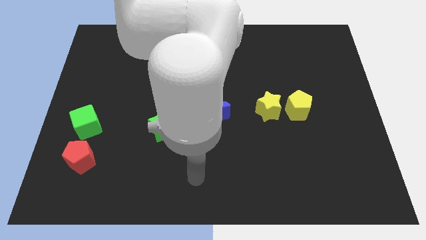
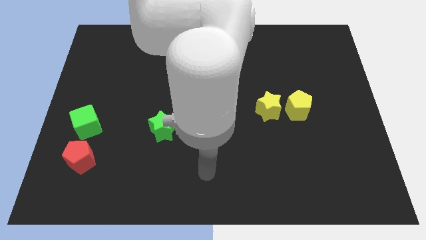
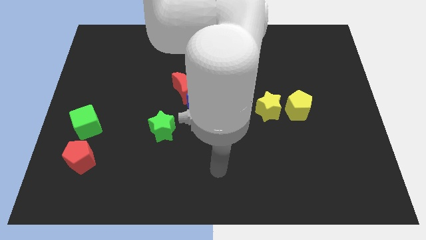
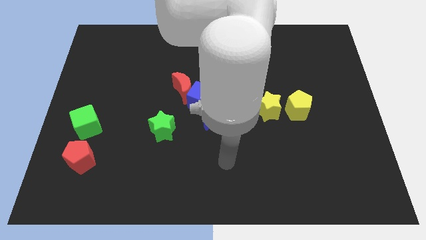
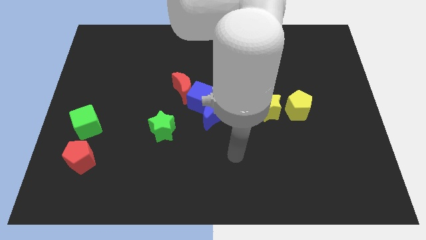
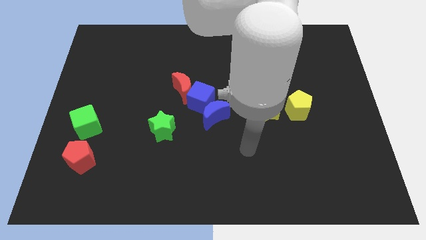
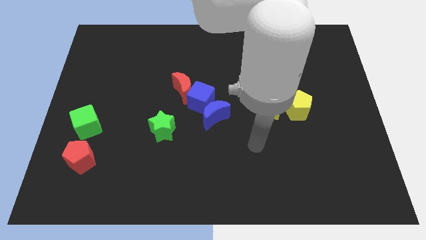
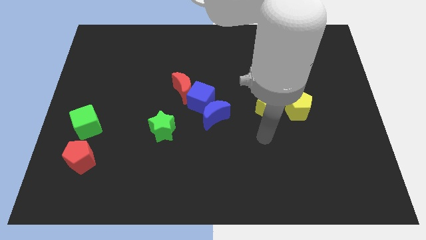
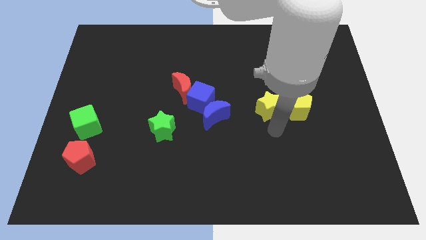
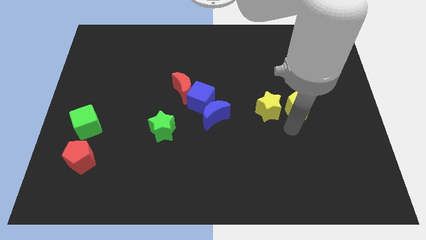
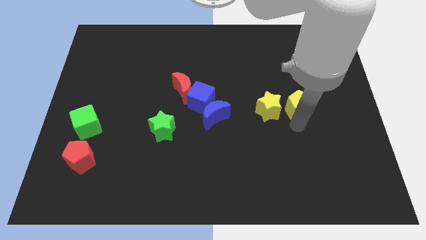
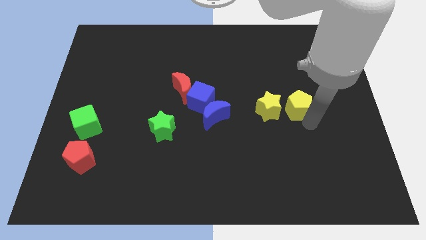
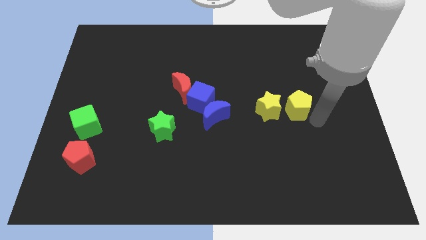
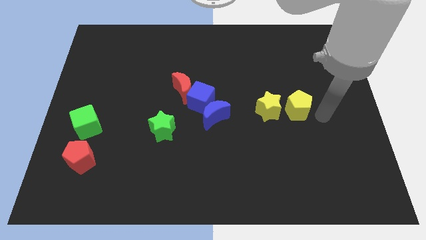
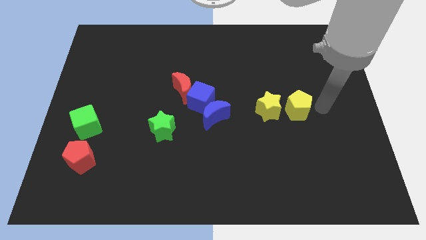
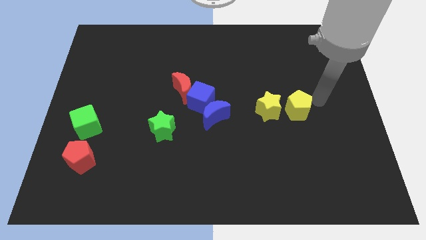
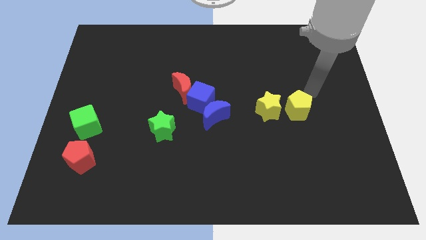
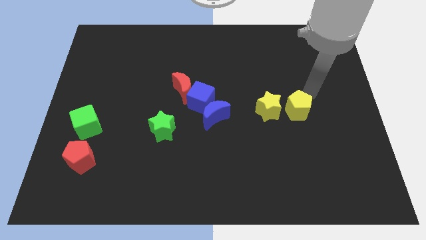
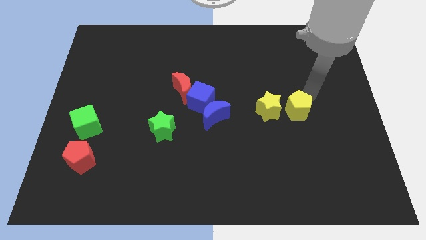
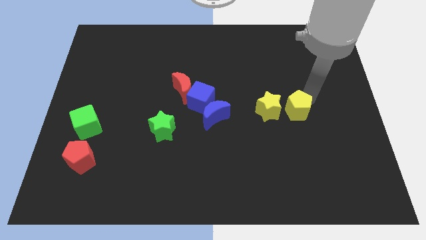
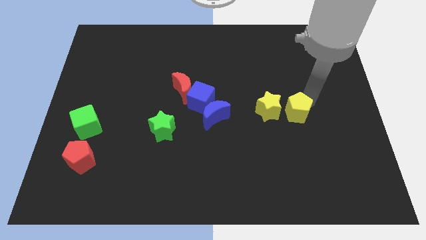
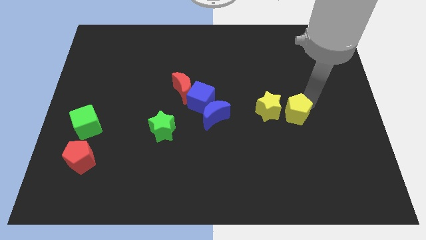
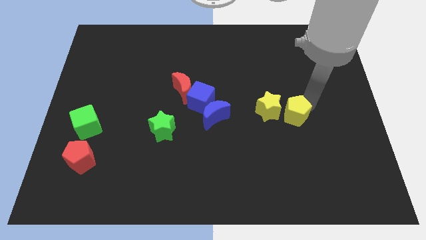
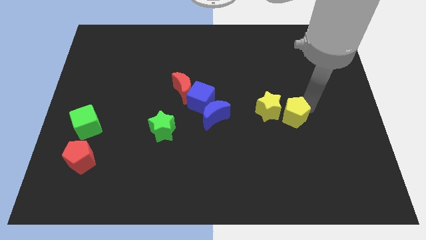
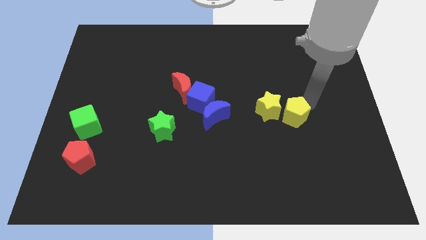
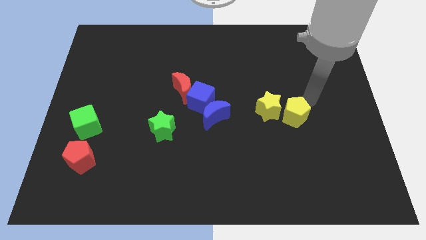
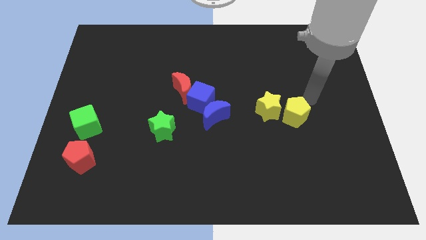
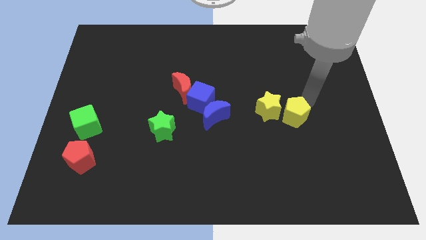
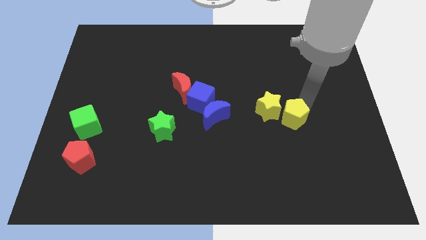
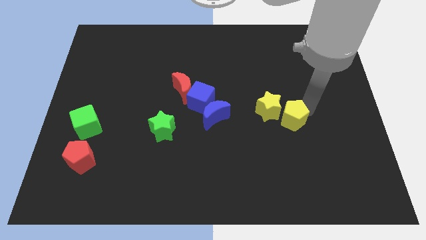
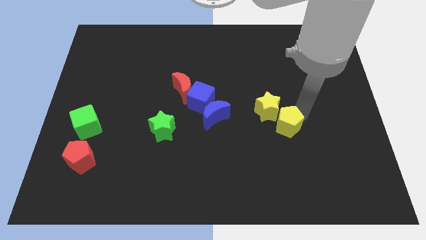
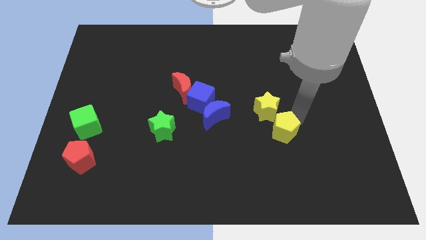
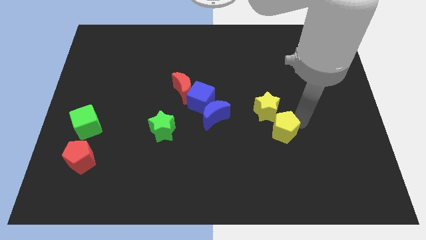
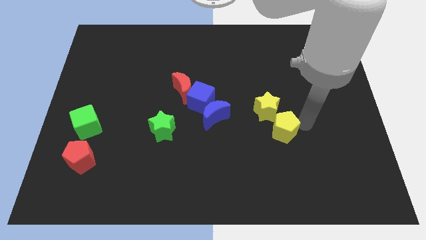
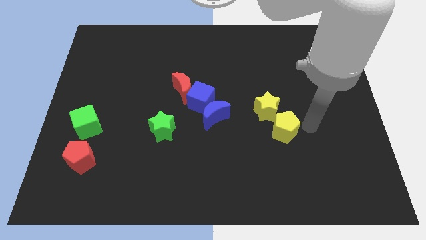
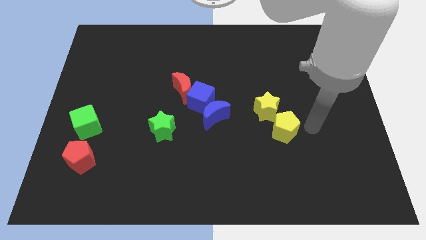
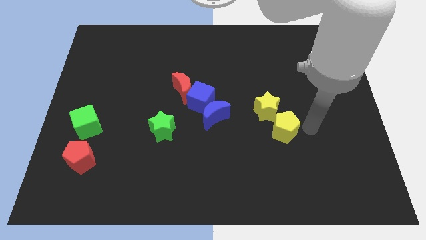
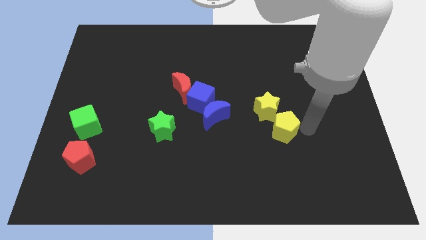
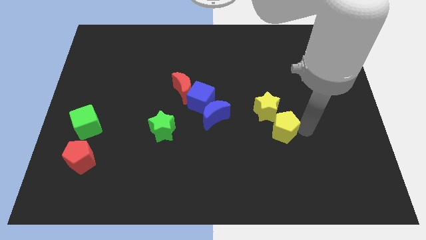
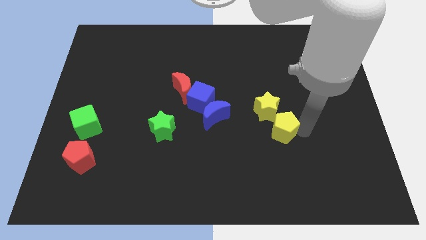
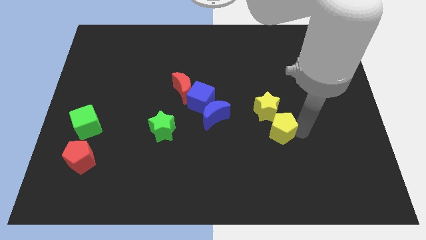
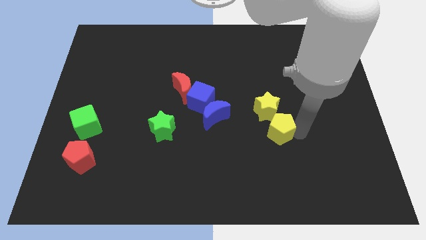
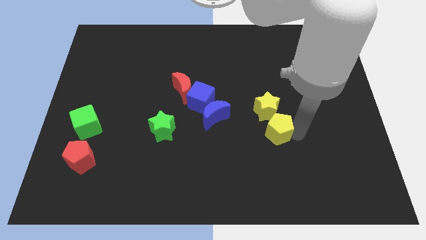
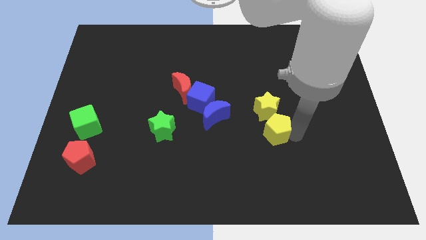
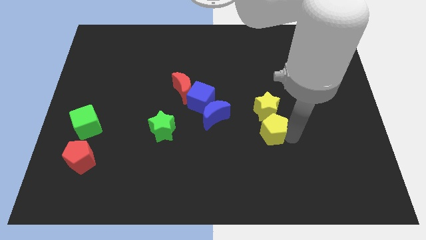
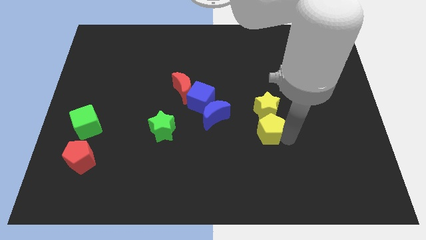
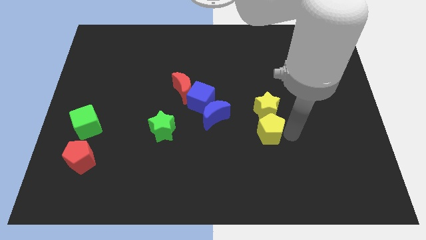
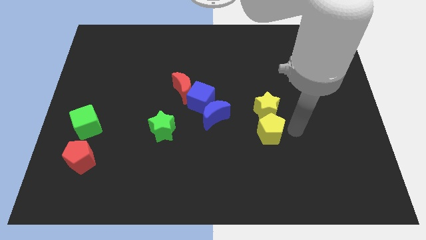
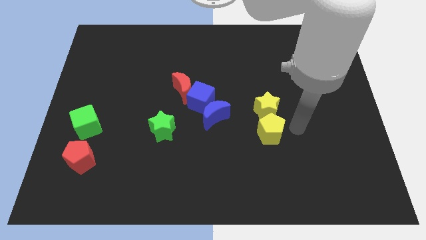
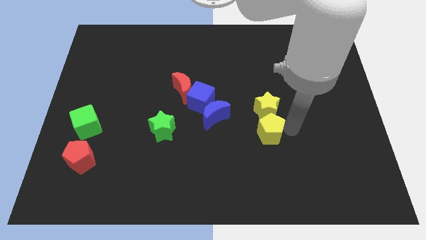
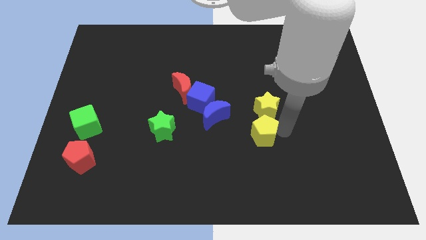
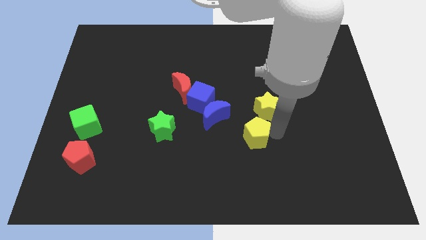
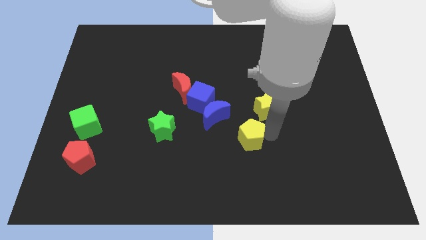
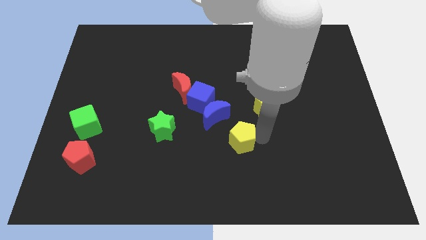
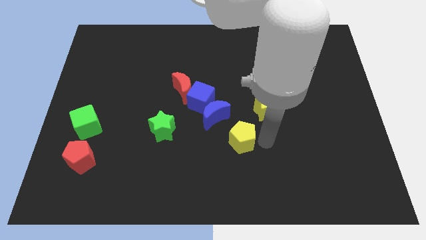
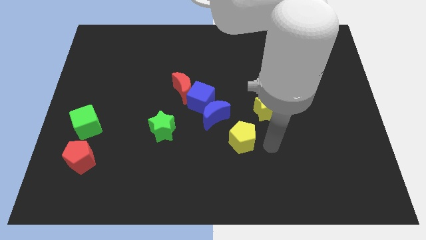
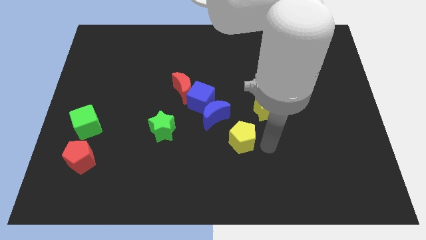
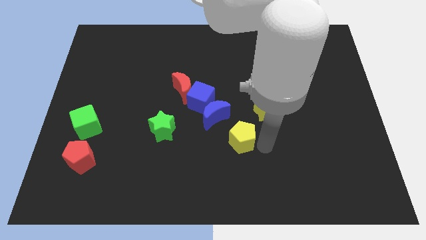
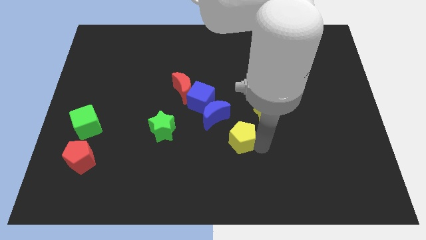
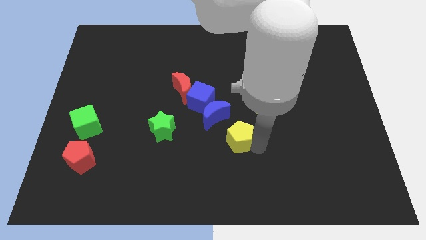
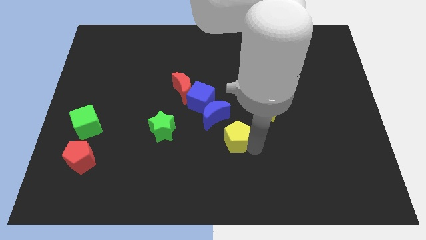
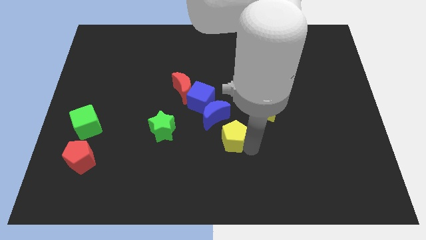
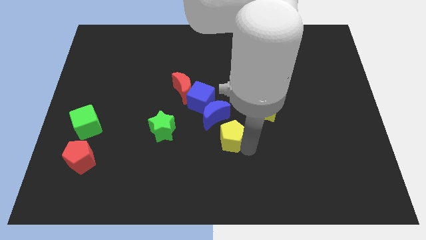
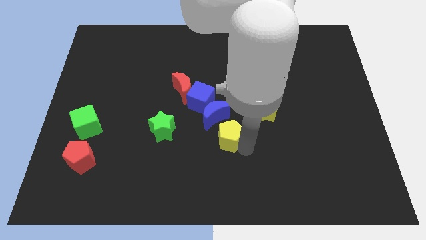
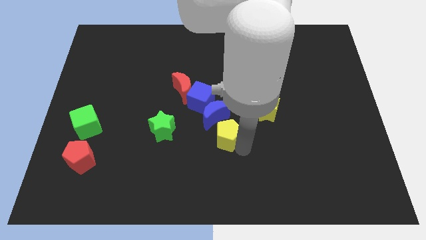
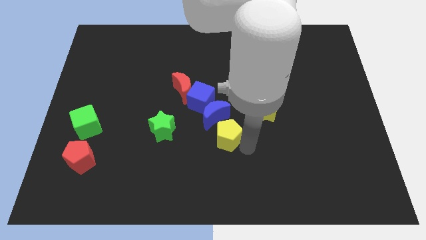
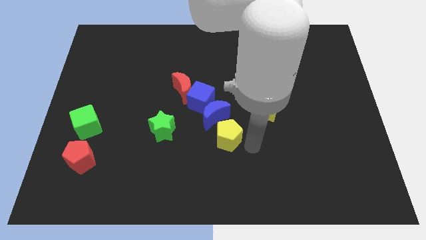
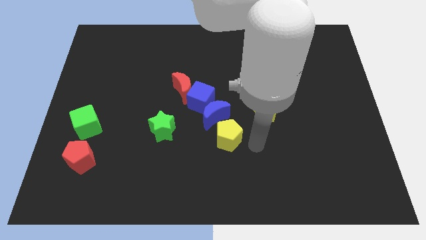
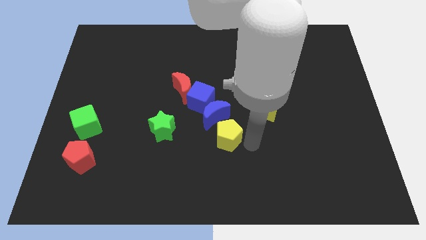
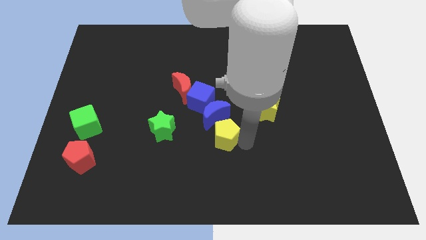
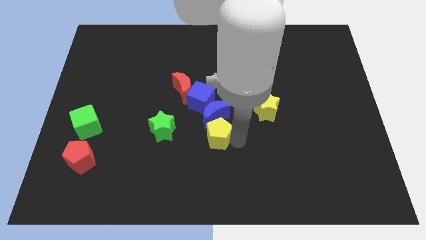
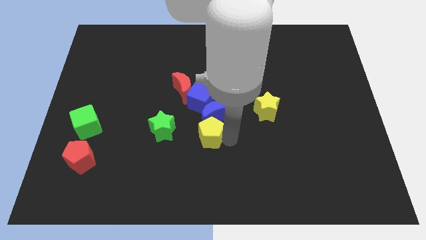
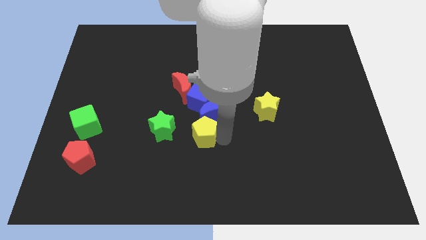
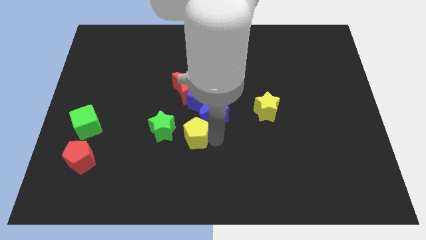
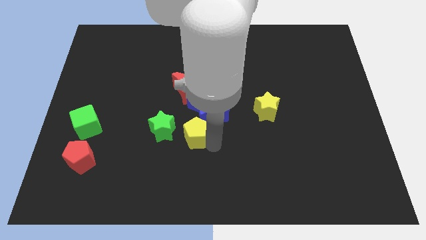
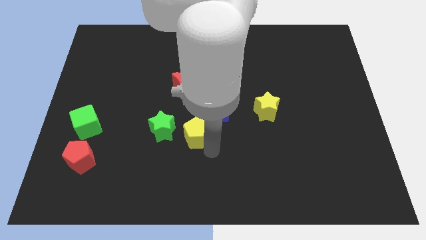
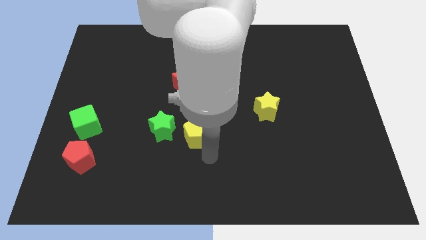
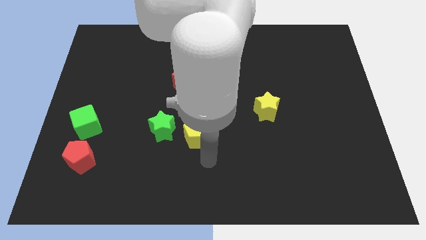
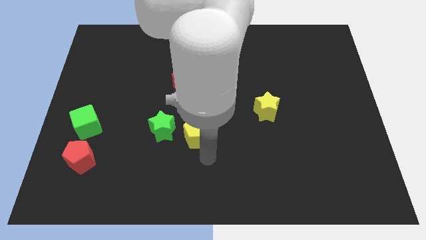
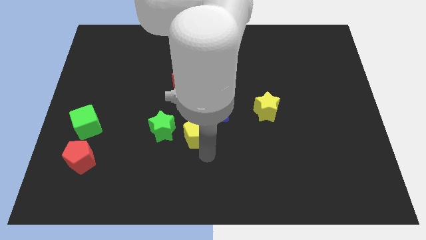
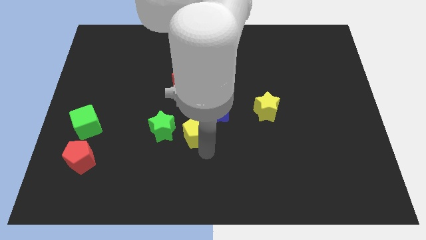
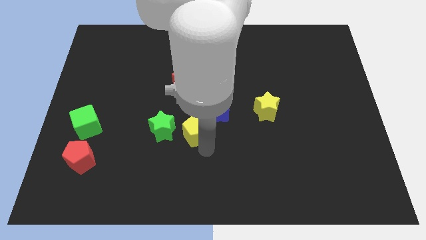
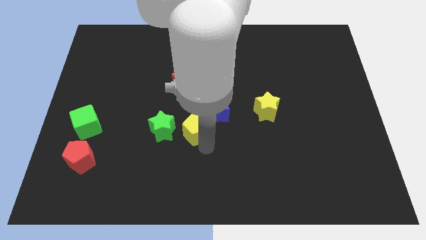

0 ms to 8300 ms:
put the yellow pentagon just left of the blue moon
